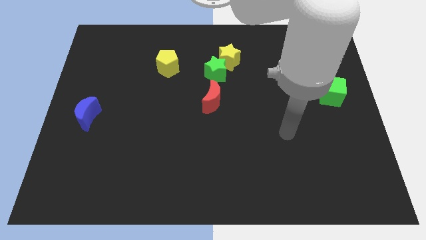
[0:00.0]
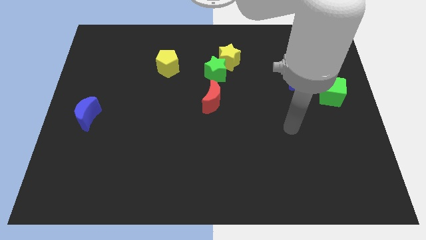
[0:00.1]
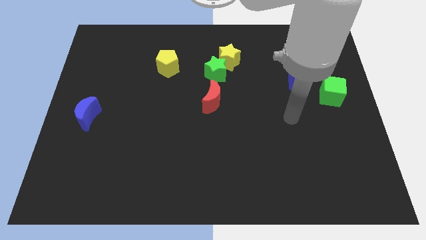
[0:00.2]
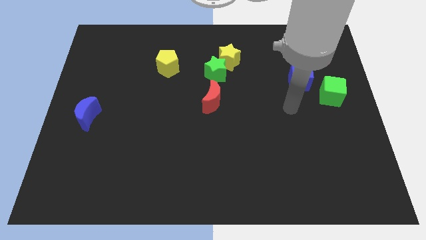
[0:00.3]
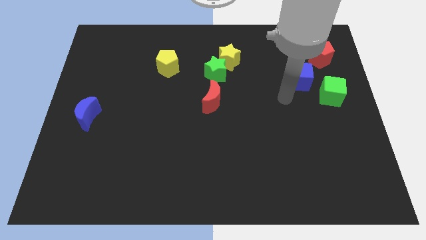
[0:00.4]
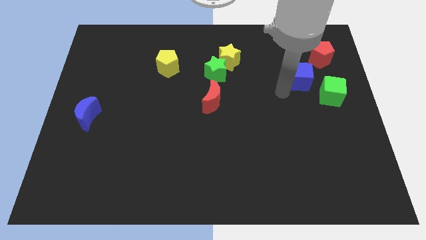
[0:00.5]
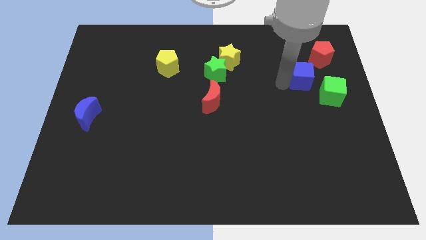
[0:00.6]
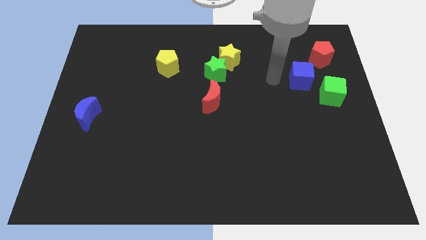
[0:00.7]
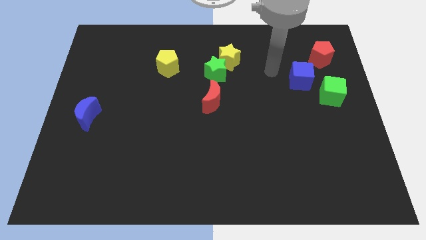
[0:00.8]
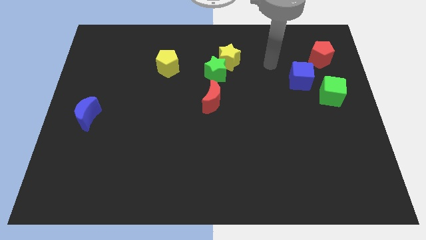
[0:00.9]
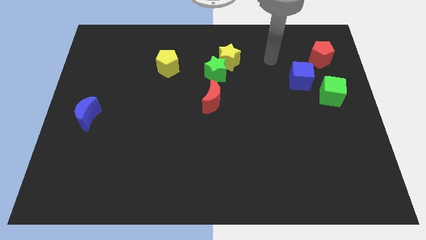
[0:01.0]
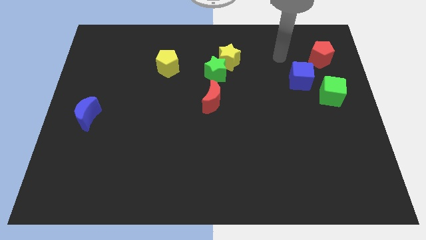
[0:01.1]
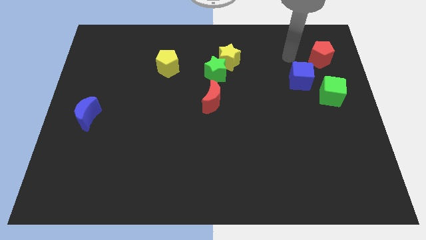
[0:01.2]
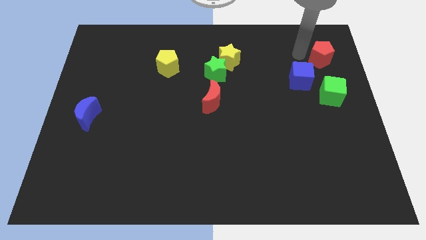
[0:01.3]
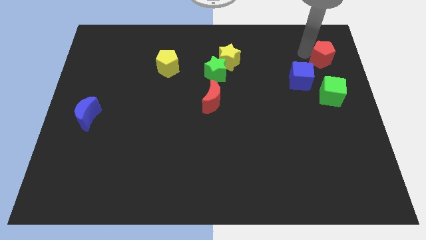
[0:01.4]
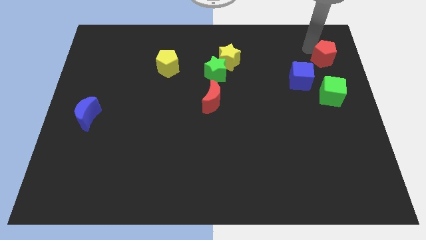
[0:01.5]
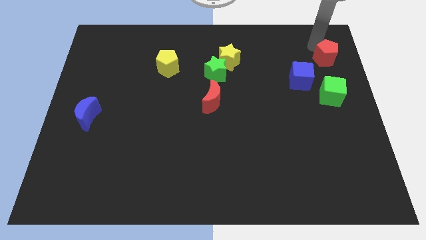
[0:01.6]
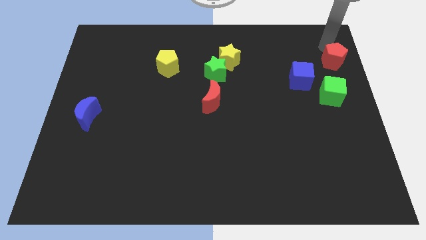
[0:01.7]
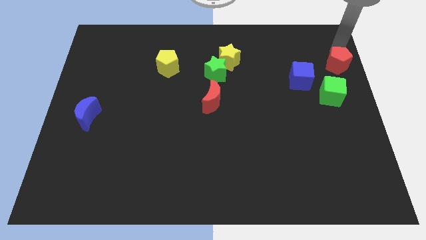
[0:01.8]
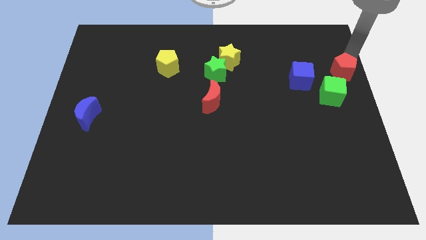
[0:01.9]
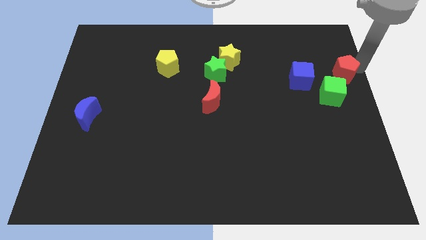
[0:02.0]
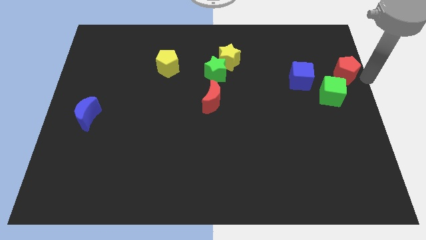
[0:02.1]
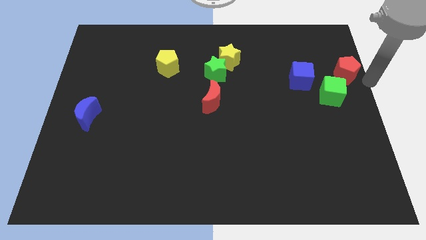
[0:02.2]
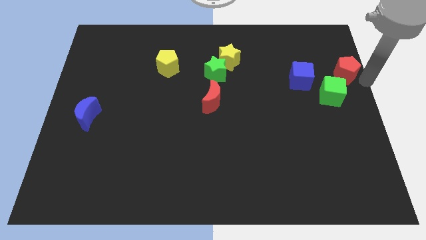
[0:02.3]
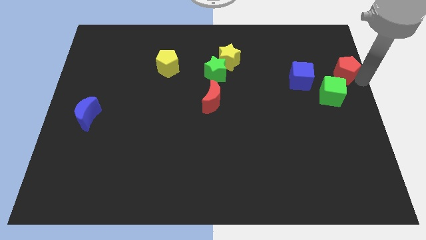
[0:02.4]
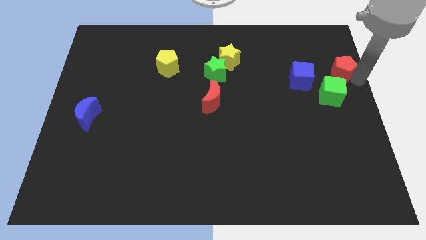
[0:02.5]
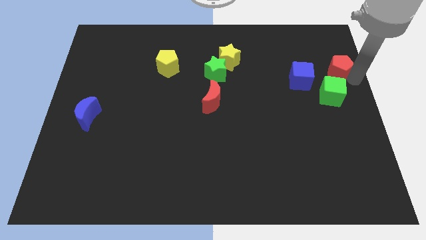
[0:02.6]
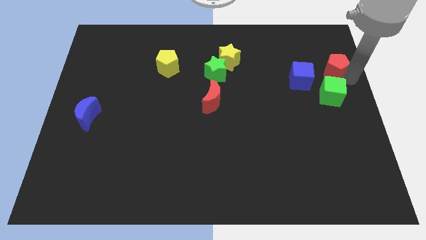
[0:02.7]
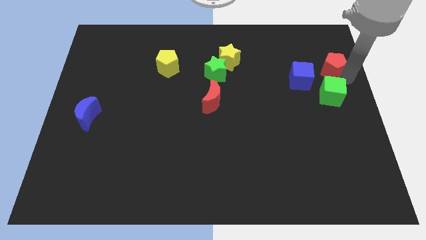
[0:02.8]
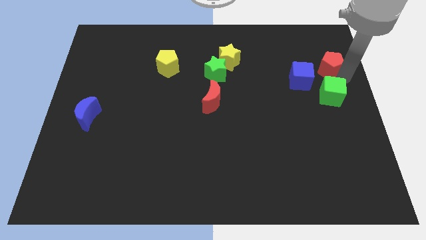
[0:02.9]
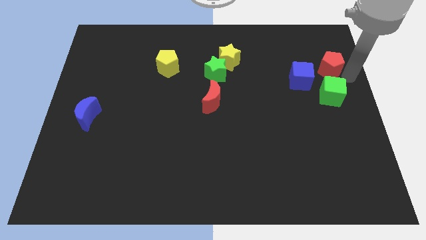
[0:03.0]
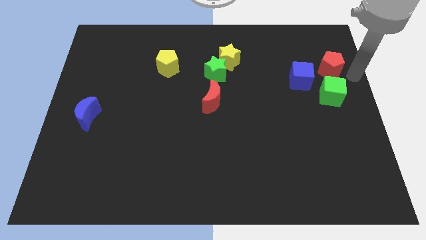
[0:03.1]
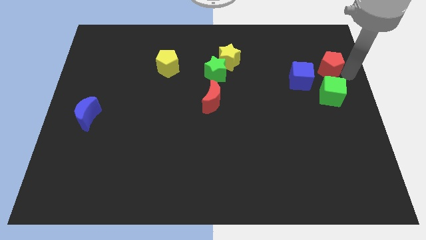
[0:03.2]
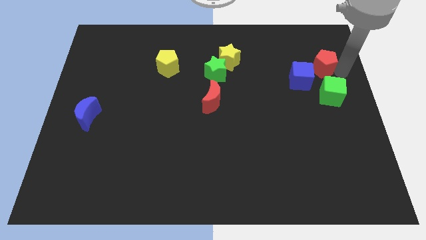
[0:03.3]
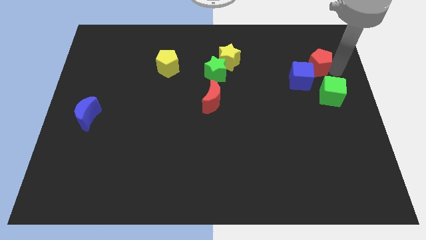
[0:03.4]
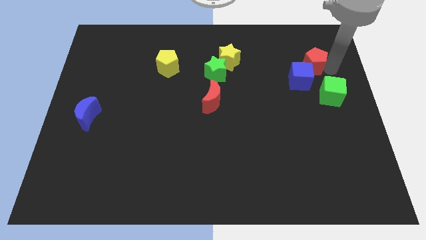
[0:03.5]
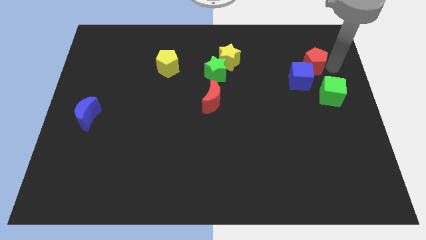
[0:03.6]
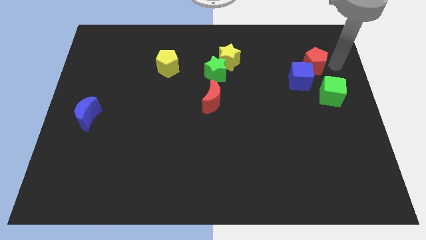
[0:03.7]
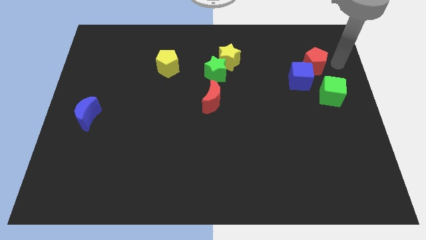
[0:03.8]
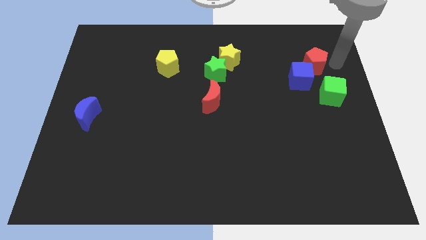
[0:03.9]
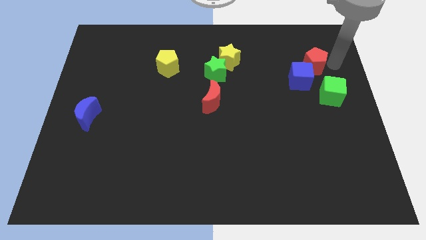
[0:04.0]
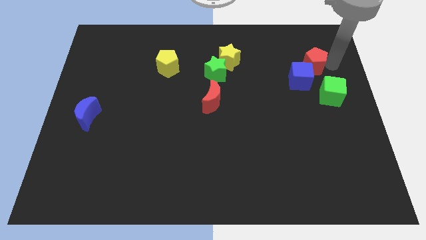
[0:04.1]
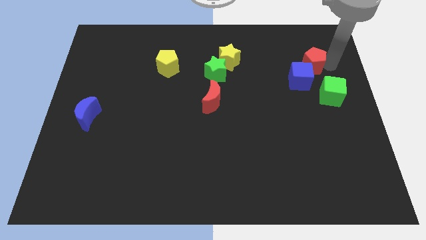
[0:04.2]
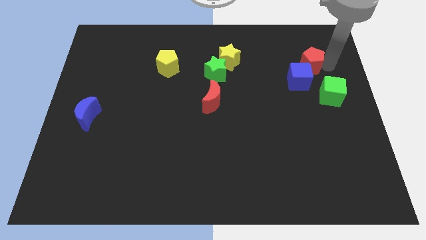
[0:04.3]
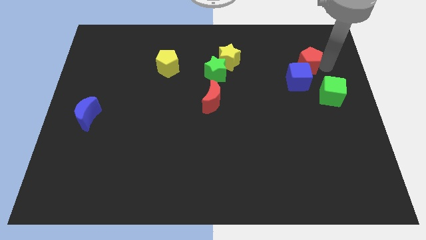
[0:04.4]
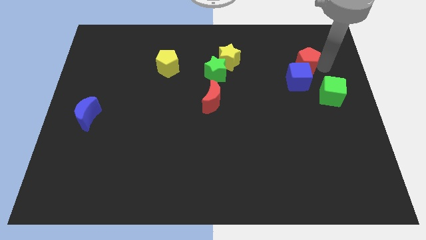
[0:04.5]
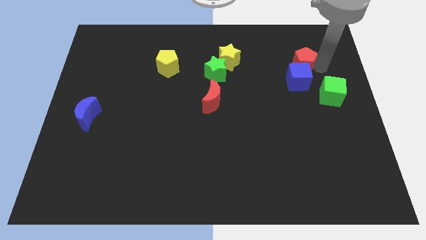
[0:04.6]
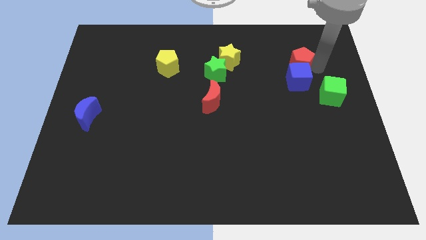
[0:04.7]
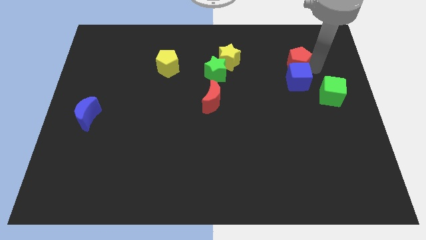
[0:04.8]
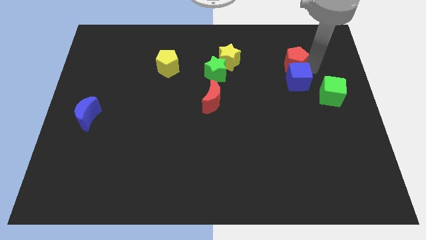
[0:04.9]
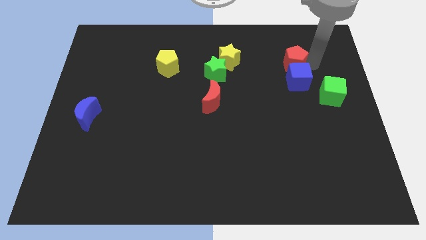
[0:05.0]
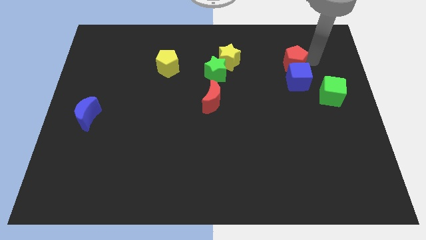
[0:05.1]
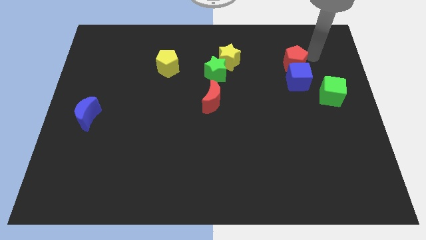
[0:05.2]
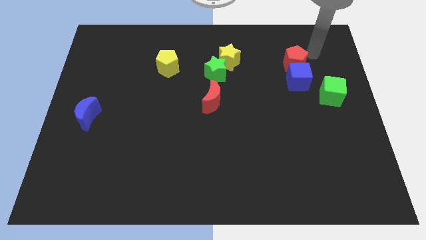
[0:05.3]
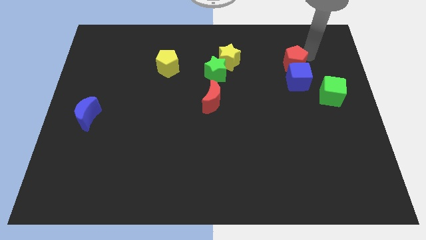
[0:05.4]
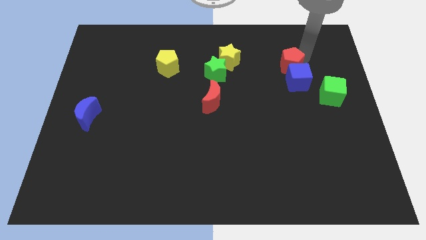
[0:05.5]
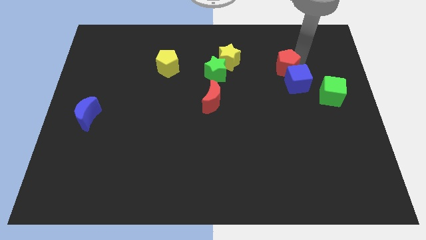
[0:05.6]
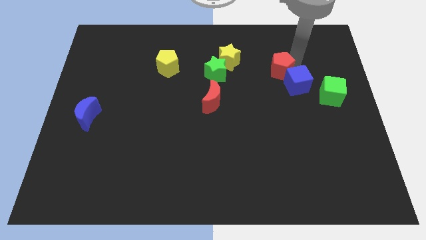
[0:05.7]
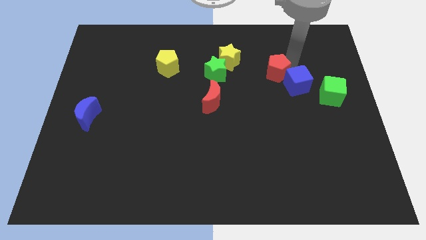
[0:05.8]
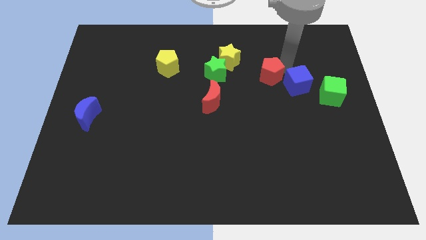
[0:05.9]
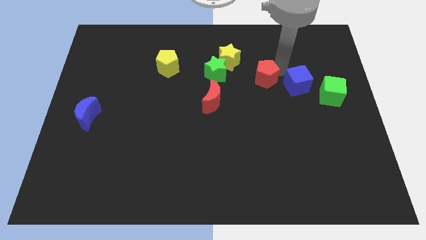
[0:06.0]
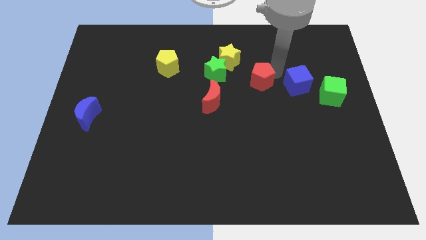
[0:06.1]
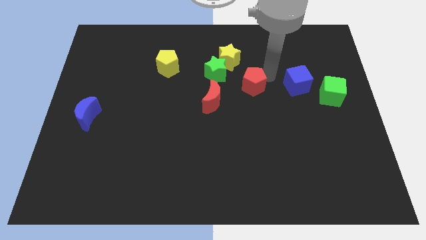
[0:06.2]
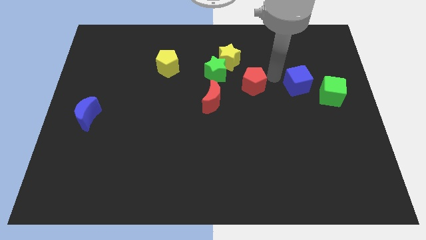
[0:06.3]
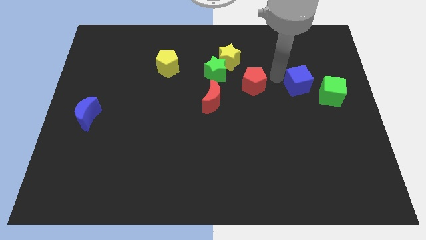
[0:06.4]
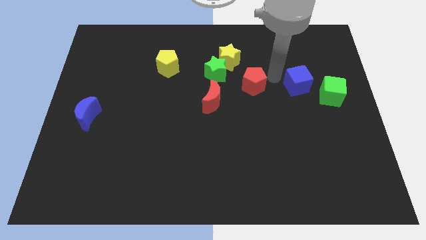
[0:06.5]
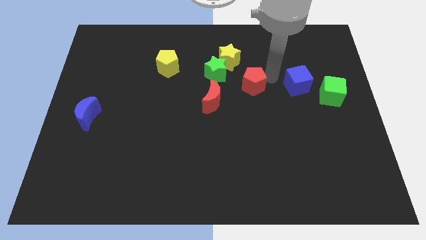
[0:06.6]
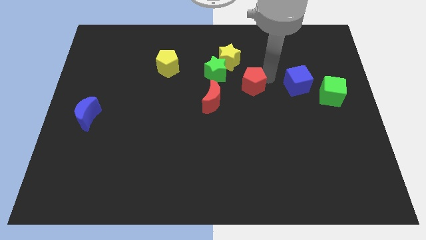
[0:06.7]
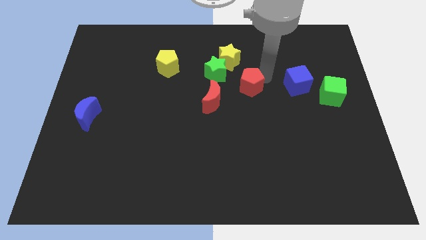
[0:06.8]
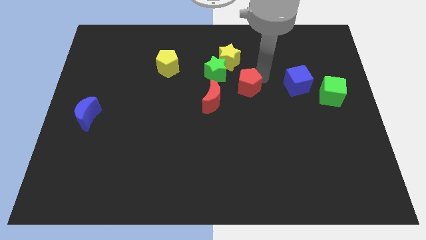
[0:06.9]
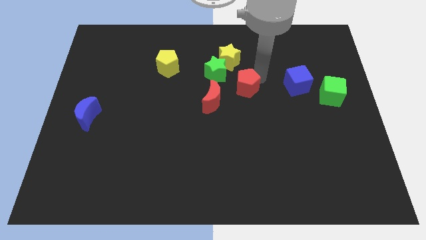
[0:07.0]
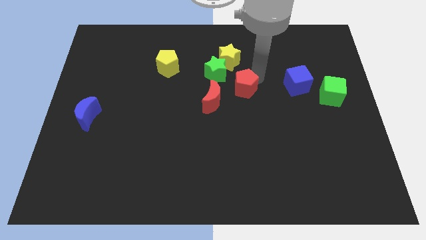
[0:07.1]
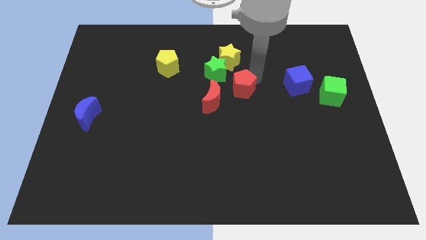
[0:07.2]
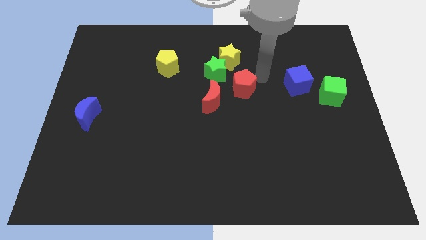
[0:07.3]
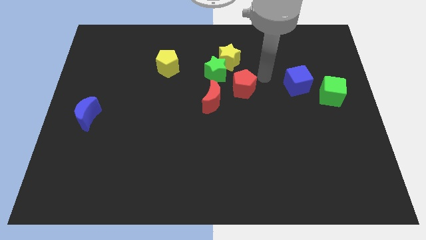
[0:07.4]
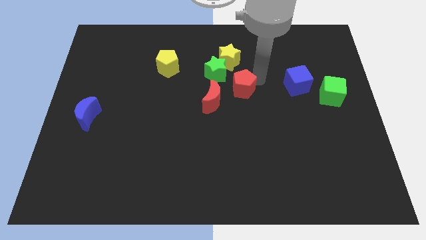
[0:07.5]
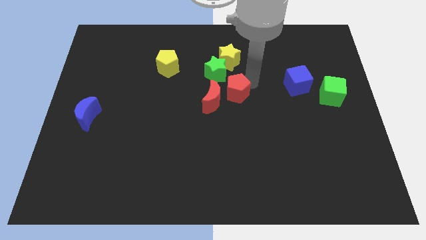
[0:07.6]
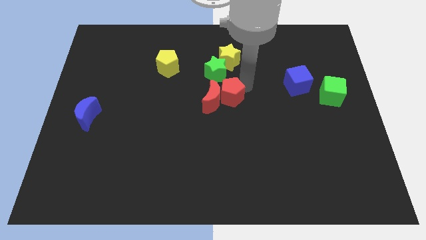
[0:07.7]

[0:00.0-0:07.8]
put the red pentagon next to the red moon
